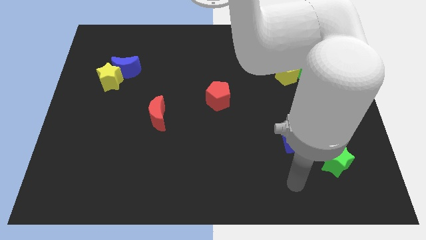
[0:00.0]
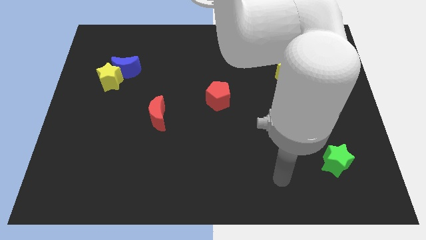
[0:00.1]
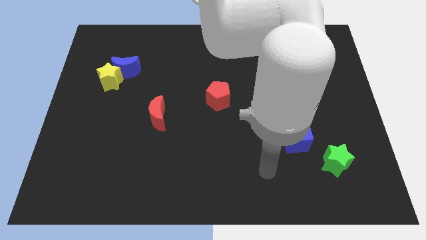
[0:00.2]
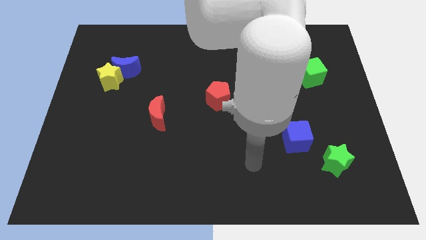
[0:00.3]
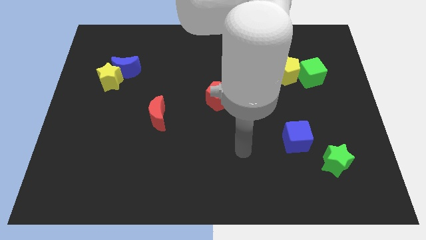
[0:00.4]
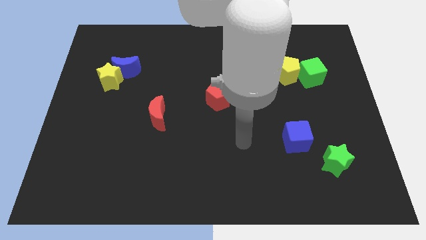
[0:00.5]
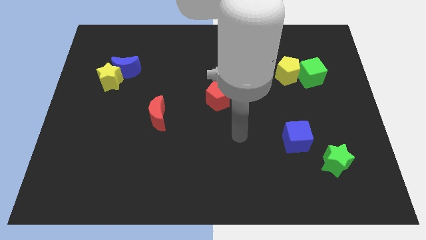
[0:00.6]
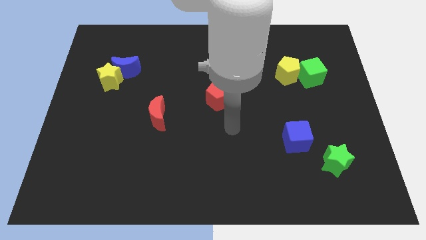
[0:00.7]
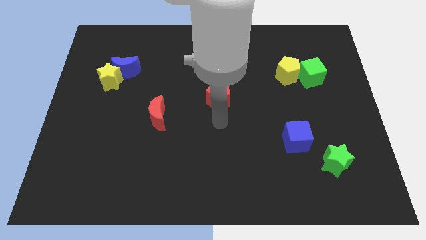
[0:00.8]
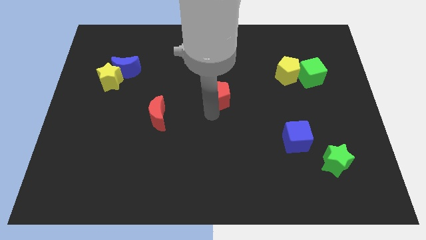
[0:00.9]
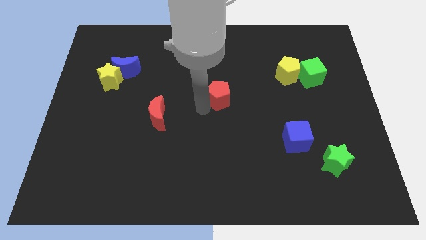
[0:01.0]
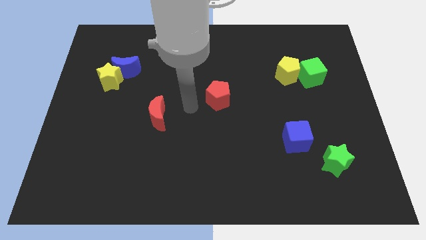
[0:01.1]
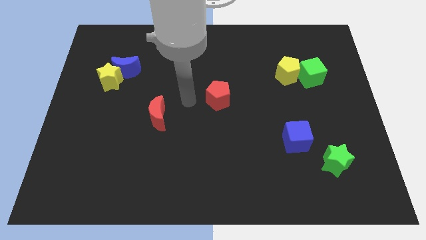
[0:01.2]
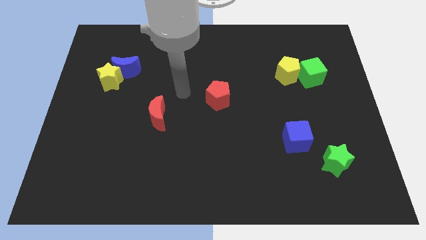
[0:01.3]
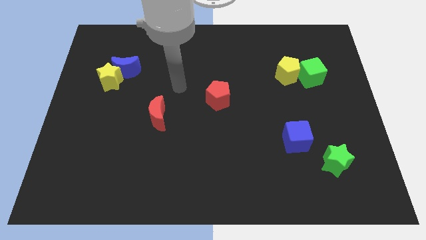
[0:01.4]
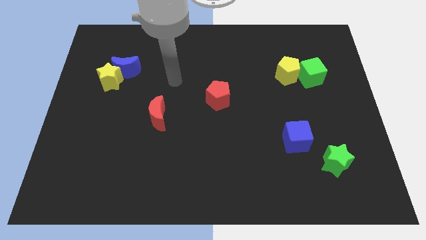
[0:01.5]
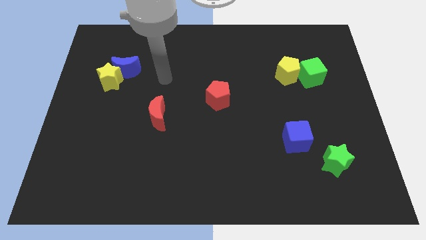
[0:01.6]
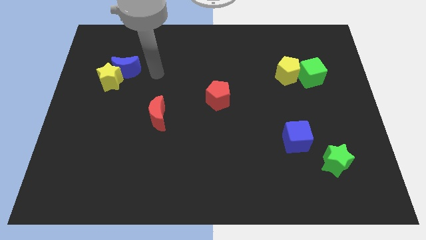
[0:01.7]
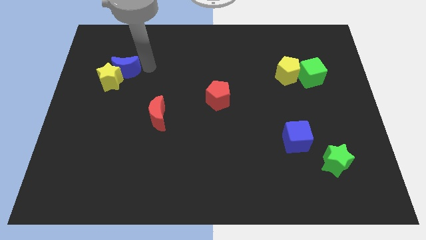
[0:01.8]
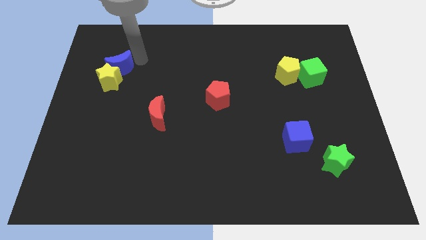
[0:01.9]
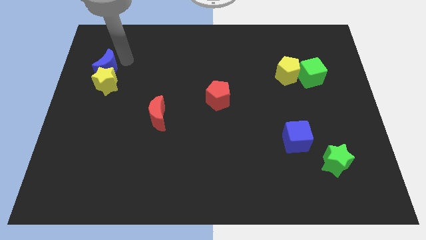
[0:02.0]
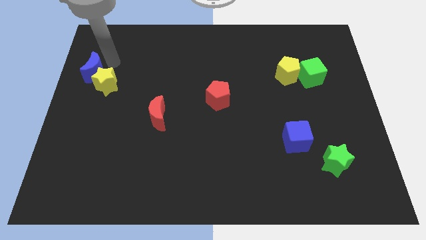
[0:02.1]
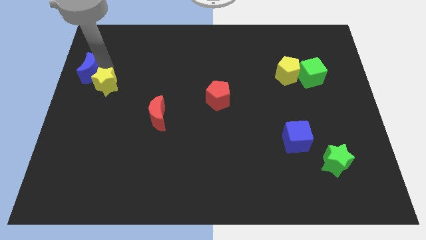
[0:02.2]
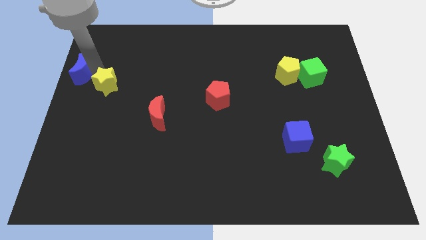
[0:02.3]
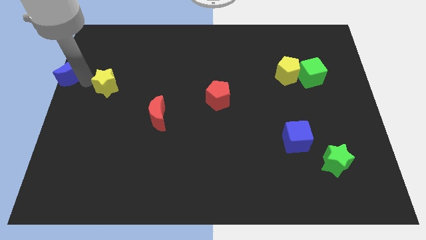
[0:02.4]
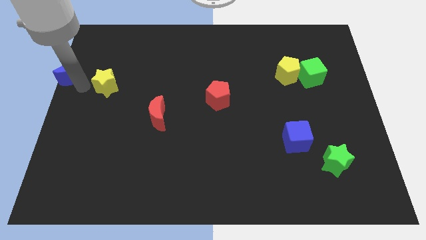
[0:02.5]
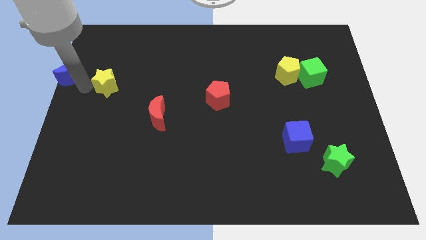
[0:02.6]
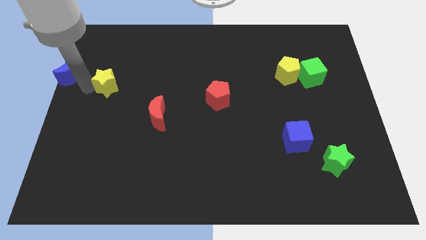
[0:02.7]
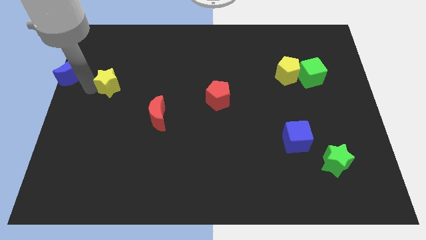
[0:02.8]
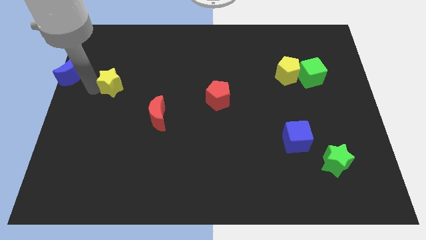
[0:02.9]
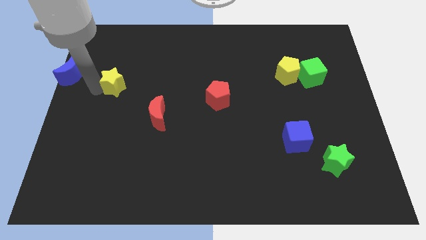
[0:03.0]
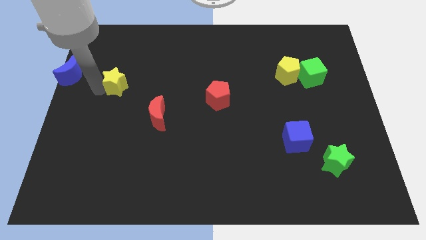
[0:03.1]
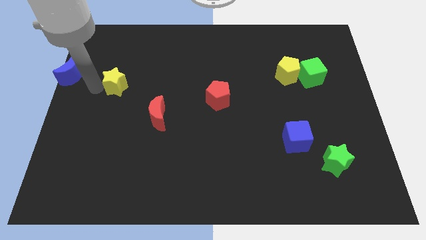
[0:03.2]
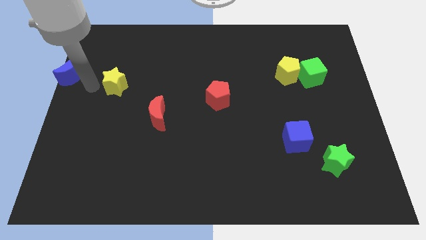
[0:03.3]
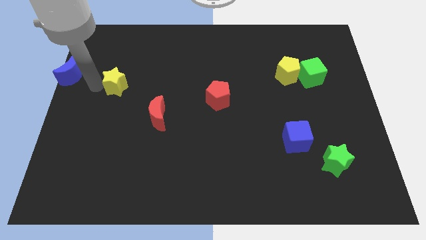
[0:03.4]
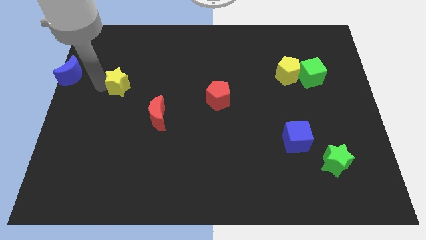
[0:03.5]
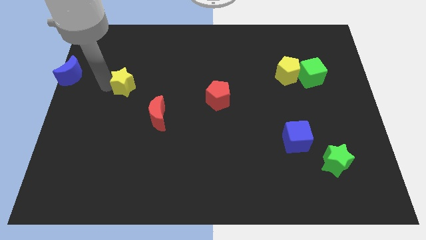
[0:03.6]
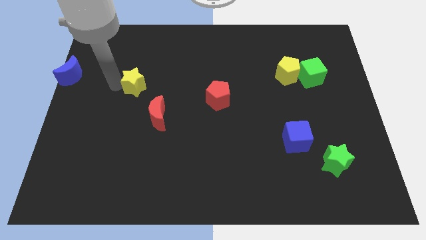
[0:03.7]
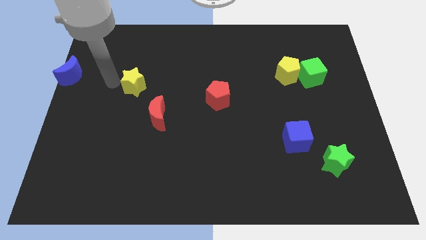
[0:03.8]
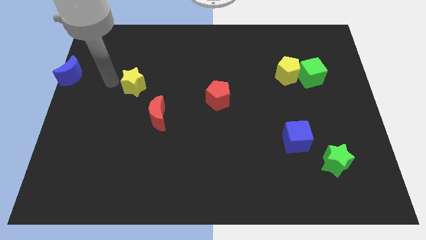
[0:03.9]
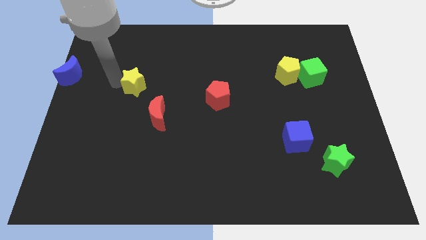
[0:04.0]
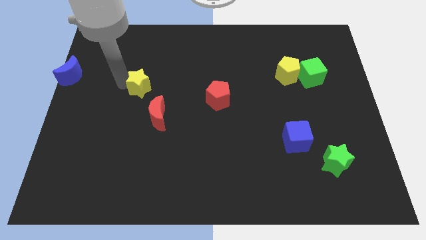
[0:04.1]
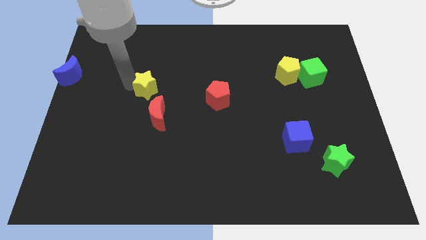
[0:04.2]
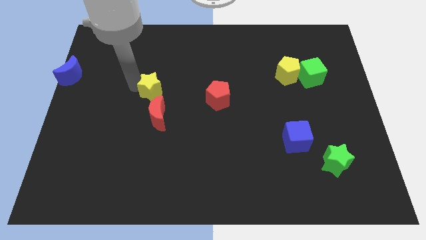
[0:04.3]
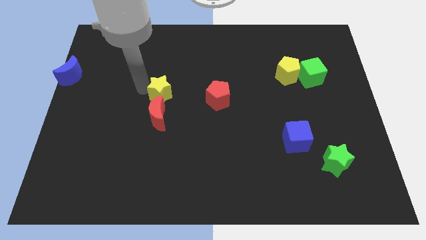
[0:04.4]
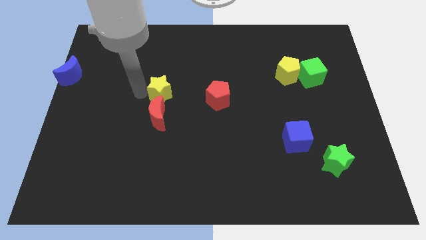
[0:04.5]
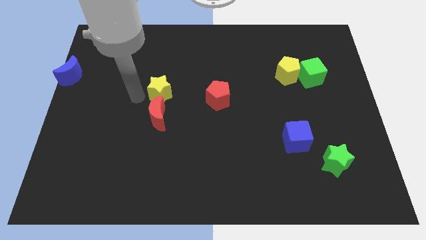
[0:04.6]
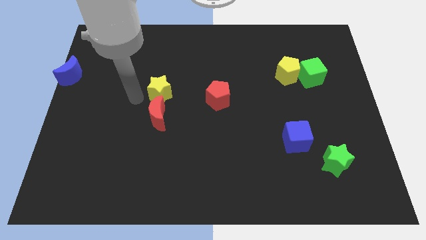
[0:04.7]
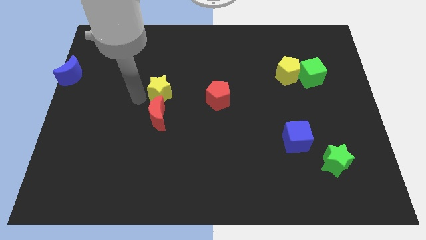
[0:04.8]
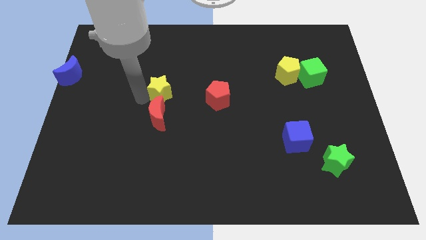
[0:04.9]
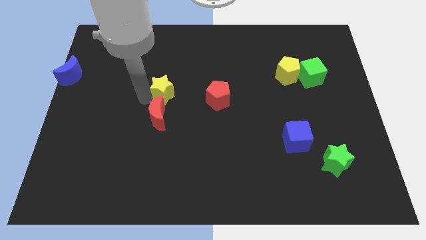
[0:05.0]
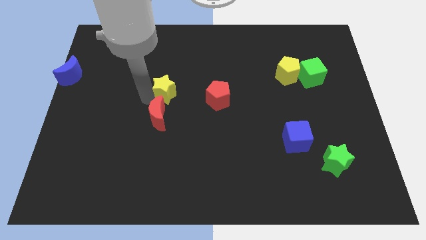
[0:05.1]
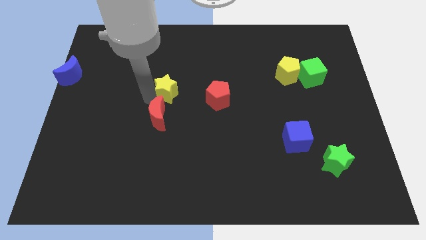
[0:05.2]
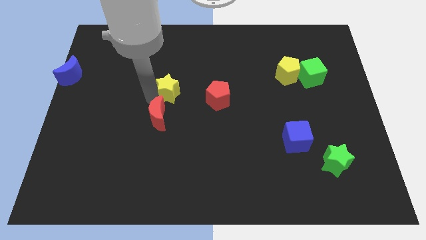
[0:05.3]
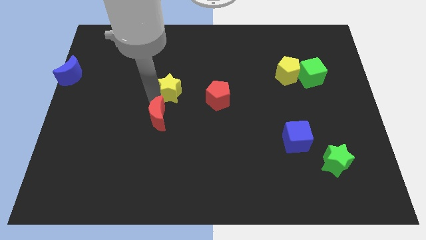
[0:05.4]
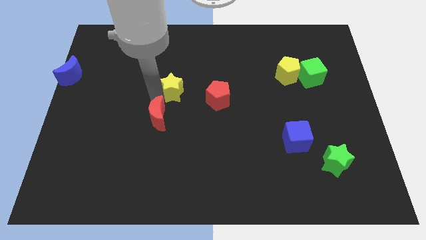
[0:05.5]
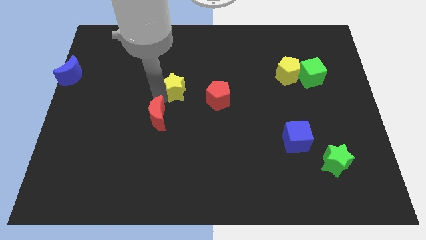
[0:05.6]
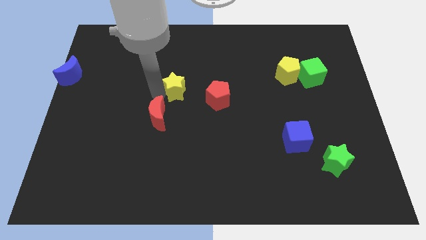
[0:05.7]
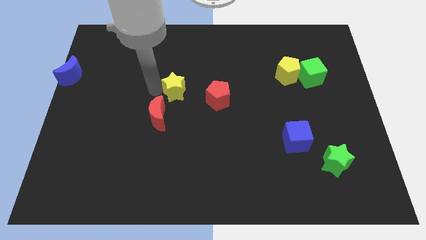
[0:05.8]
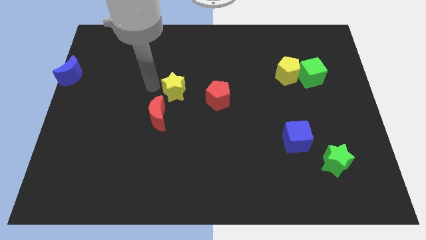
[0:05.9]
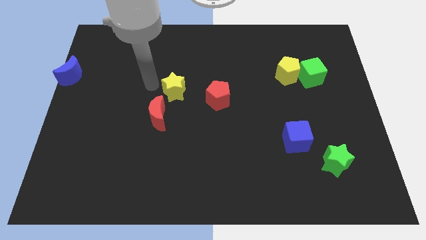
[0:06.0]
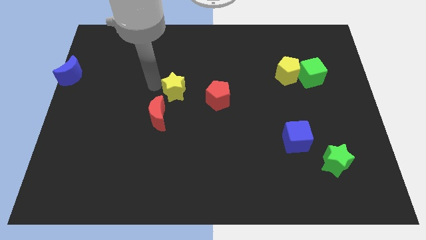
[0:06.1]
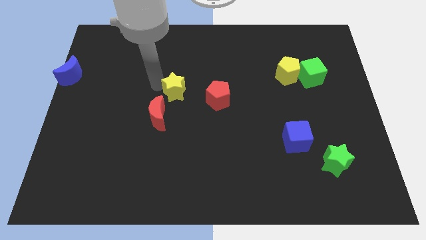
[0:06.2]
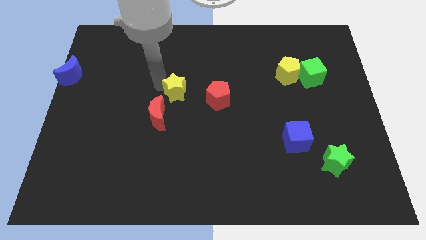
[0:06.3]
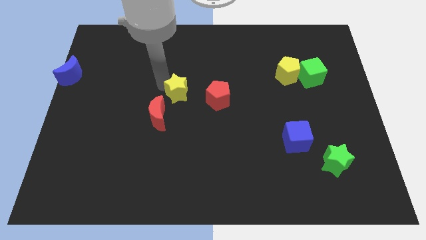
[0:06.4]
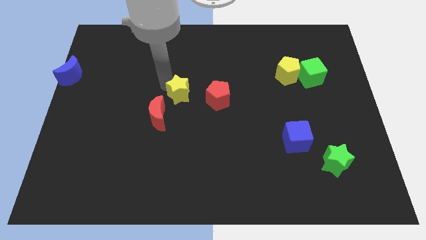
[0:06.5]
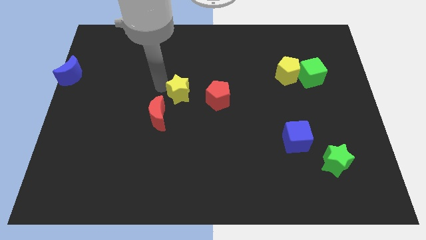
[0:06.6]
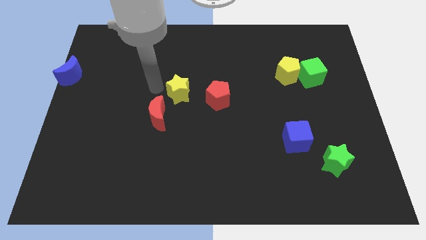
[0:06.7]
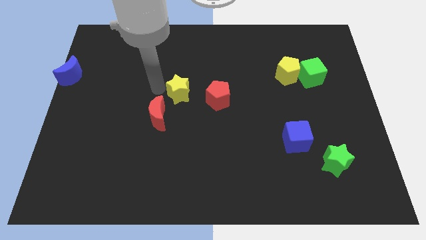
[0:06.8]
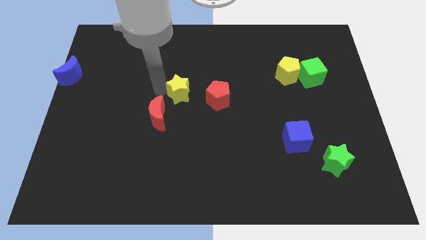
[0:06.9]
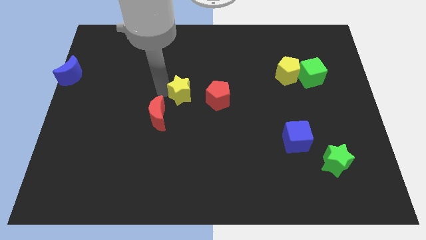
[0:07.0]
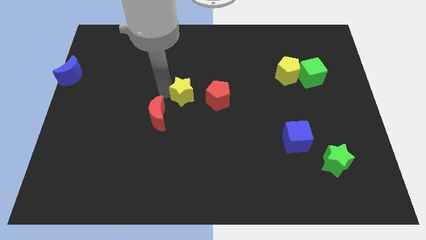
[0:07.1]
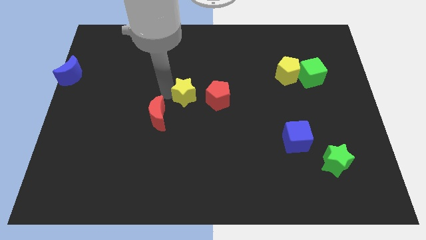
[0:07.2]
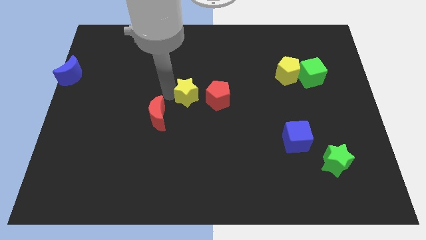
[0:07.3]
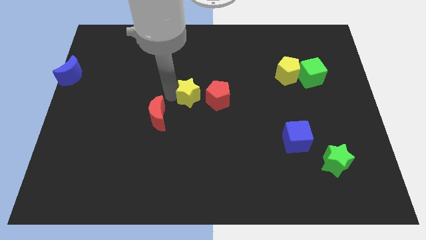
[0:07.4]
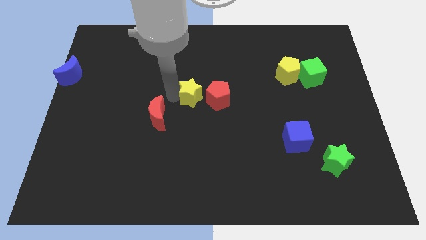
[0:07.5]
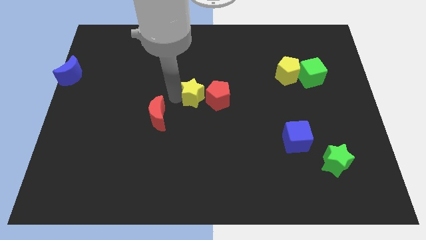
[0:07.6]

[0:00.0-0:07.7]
slide the yellow star towards the red pentagon

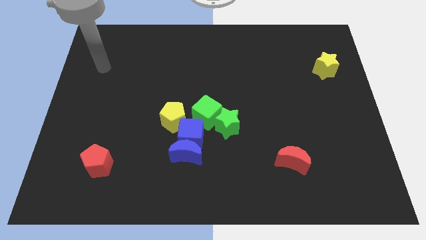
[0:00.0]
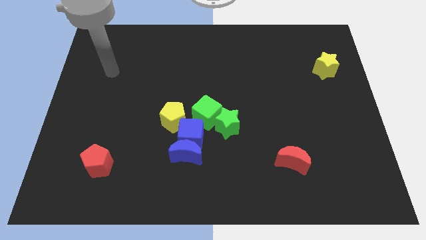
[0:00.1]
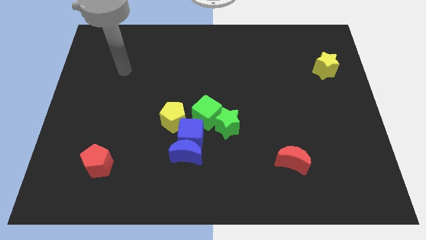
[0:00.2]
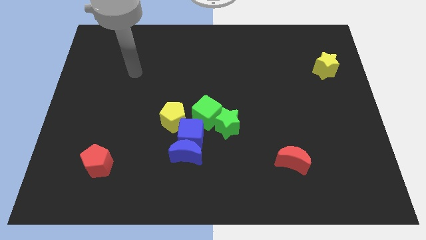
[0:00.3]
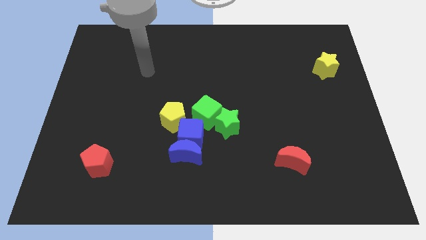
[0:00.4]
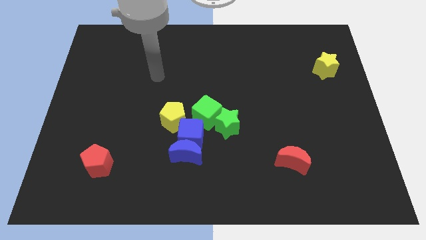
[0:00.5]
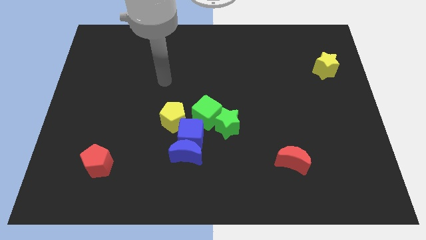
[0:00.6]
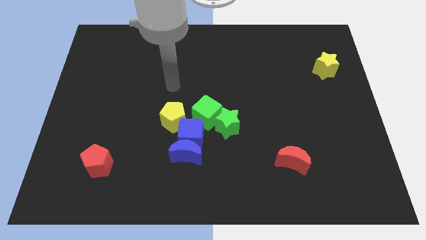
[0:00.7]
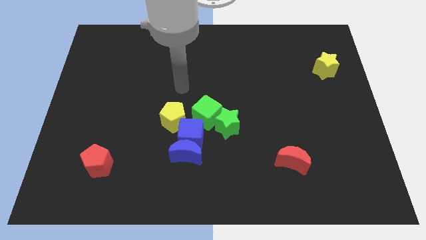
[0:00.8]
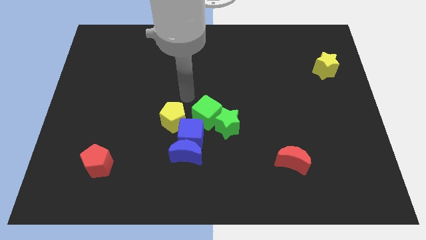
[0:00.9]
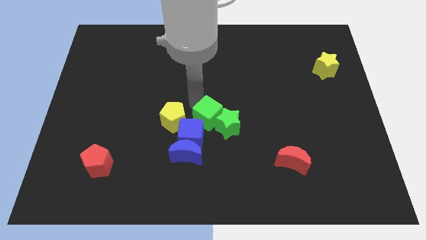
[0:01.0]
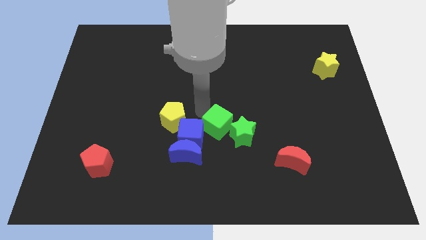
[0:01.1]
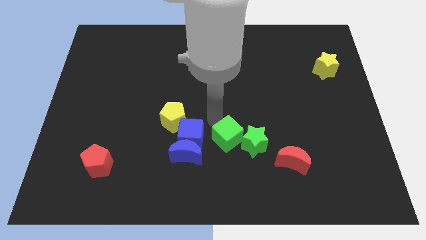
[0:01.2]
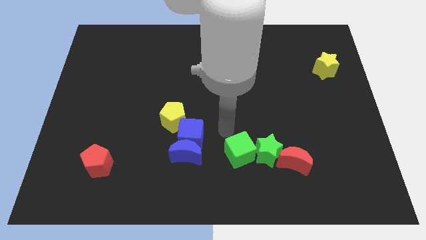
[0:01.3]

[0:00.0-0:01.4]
put the green star close to the red moon
